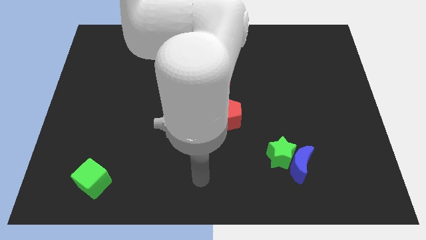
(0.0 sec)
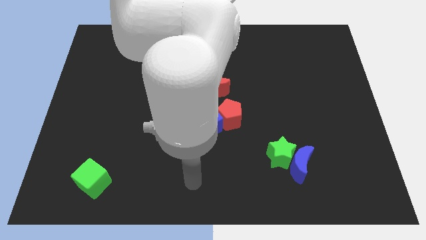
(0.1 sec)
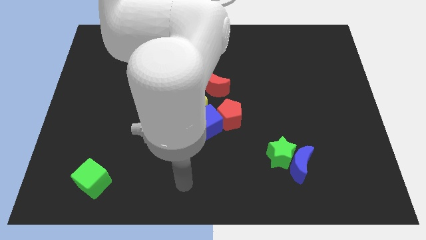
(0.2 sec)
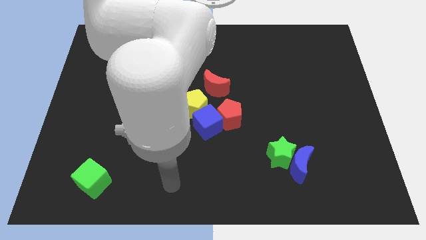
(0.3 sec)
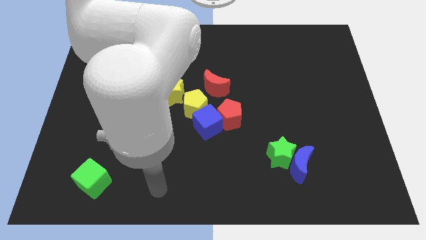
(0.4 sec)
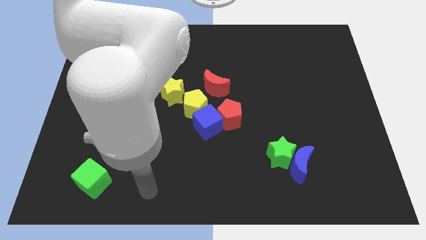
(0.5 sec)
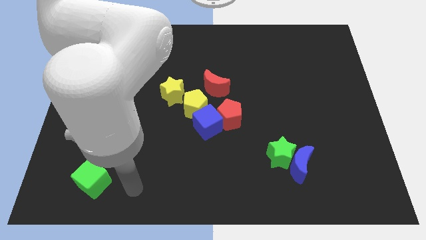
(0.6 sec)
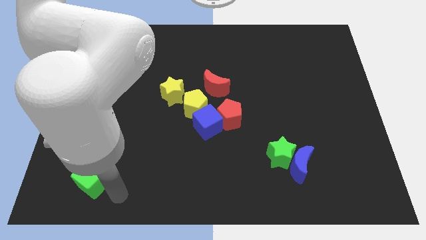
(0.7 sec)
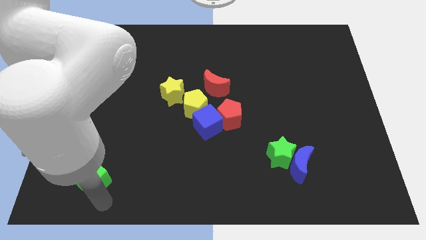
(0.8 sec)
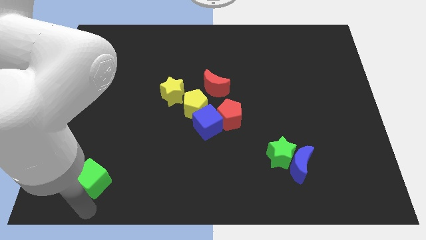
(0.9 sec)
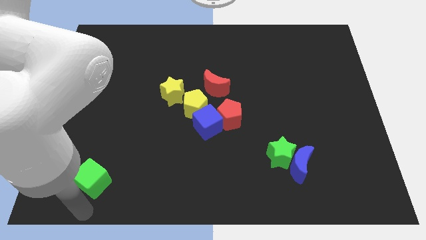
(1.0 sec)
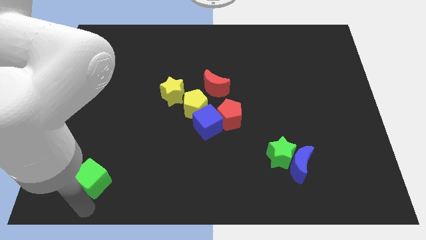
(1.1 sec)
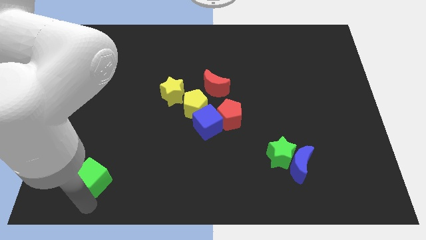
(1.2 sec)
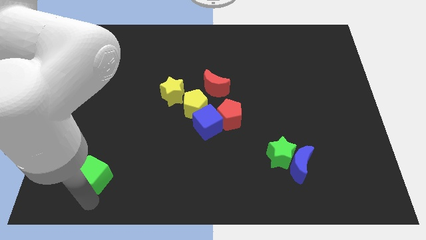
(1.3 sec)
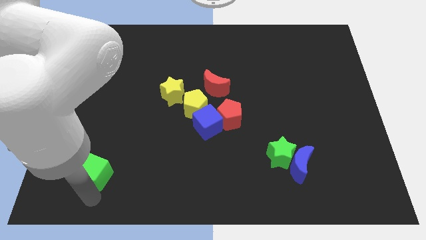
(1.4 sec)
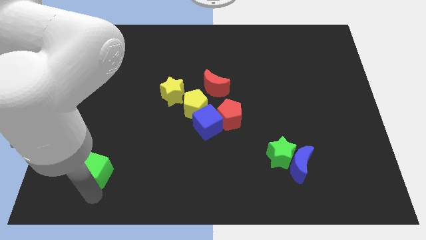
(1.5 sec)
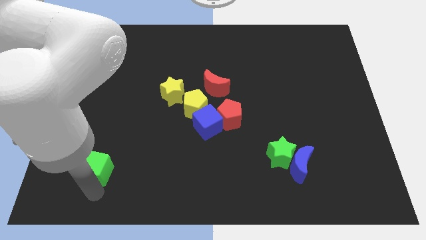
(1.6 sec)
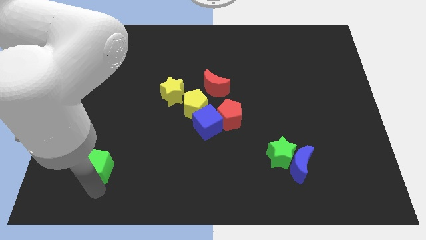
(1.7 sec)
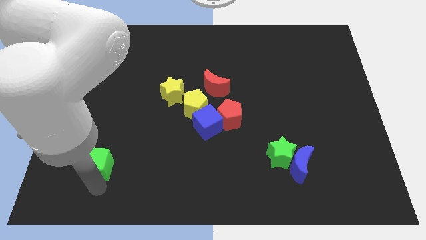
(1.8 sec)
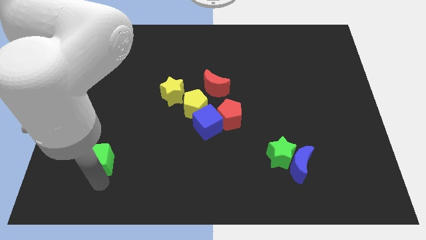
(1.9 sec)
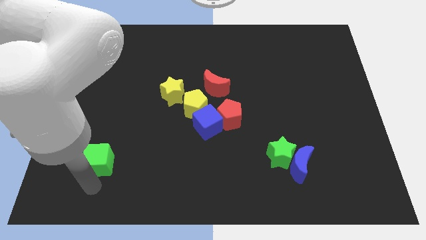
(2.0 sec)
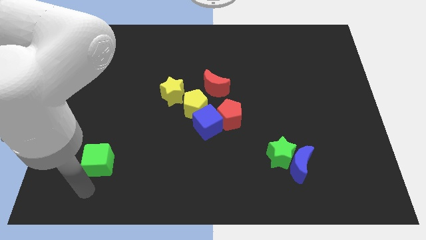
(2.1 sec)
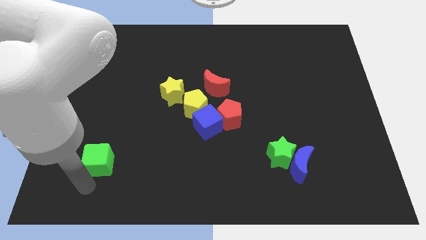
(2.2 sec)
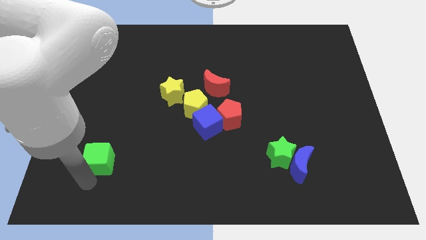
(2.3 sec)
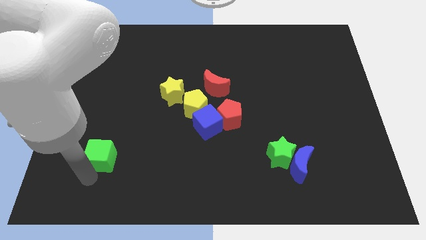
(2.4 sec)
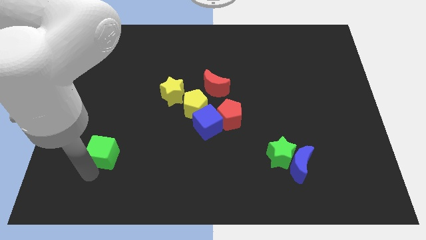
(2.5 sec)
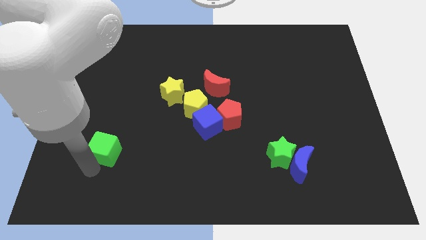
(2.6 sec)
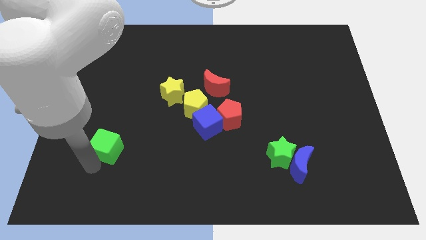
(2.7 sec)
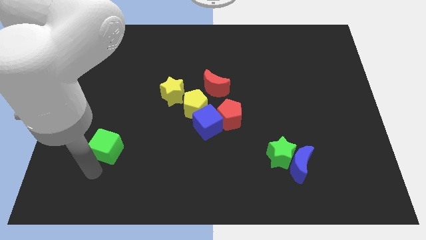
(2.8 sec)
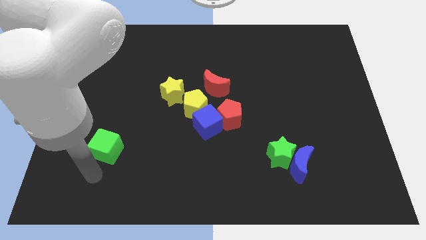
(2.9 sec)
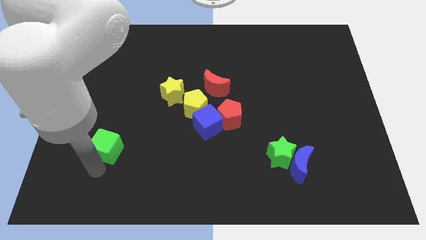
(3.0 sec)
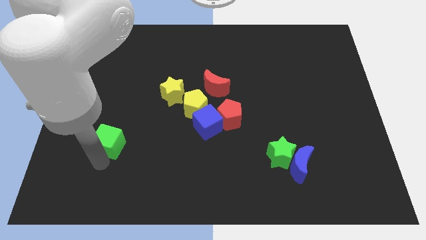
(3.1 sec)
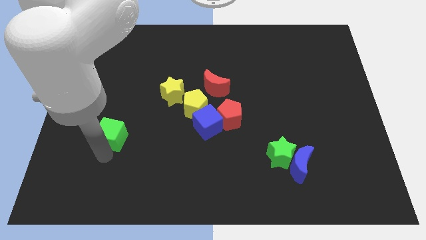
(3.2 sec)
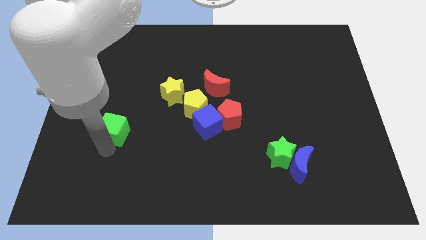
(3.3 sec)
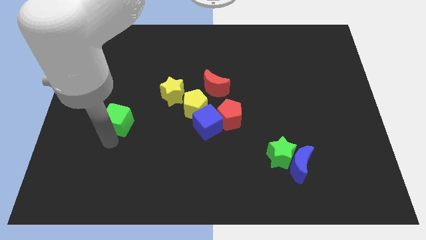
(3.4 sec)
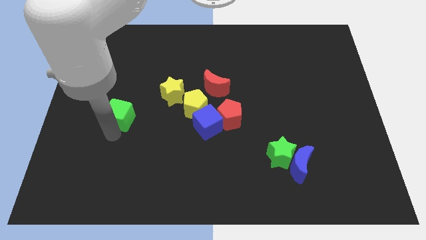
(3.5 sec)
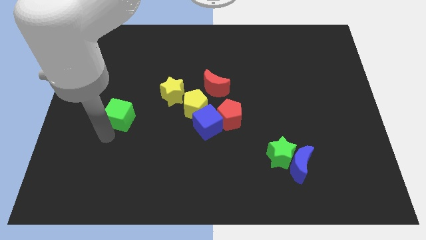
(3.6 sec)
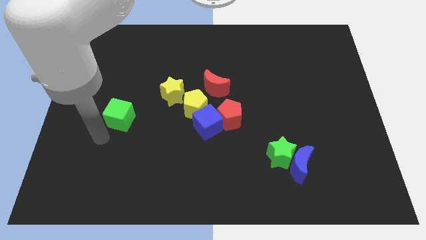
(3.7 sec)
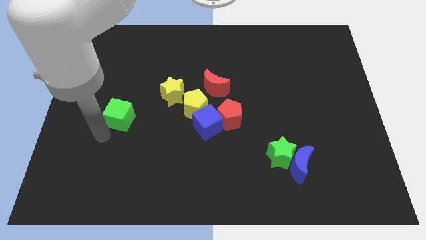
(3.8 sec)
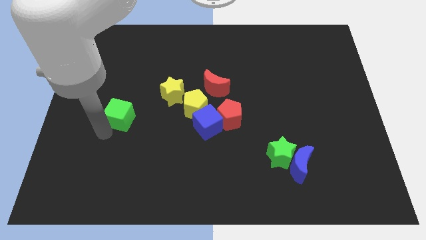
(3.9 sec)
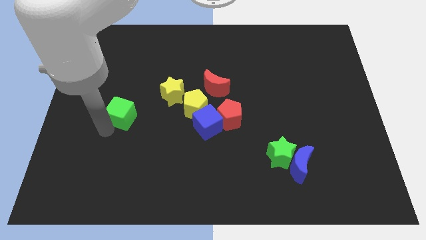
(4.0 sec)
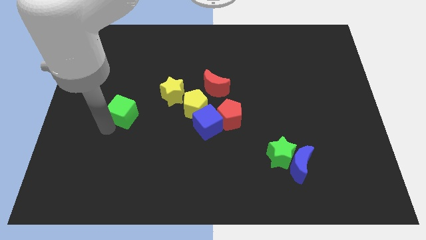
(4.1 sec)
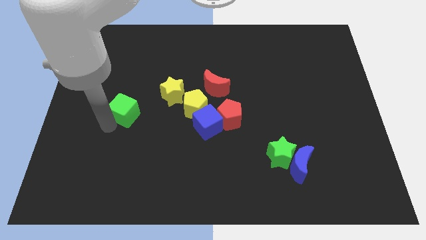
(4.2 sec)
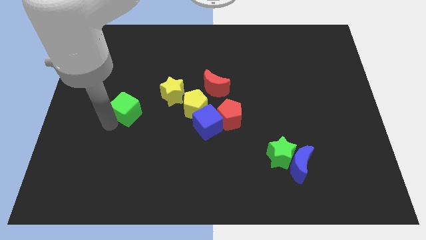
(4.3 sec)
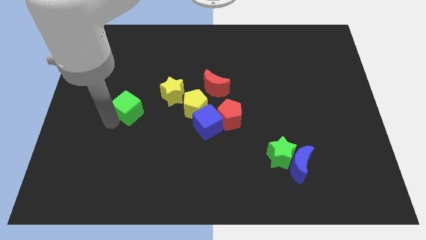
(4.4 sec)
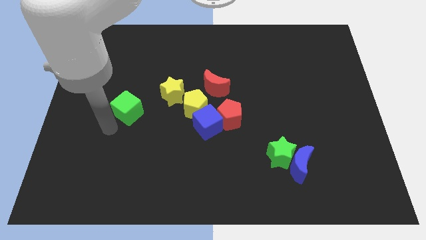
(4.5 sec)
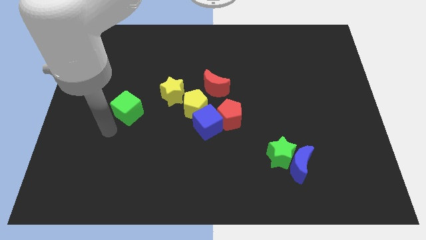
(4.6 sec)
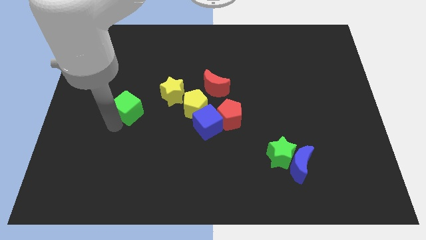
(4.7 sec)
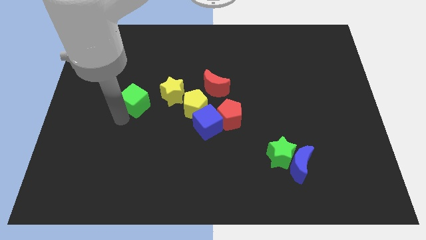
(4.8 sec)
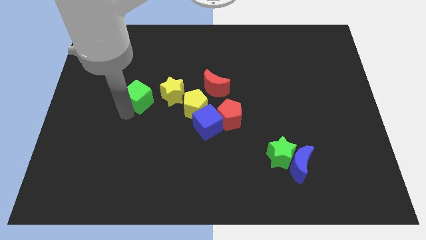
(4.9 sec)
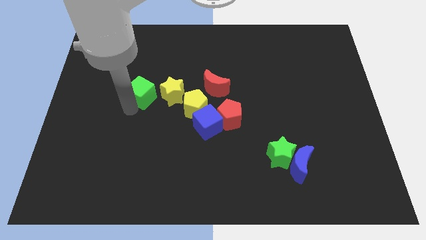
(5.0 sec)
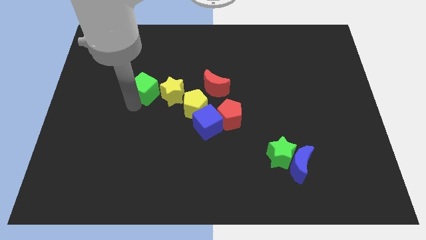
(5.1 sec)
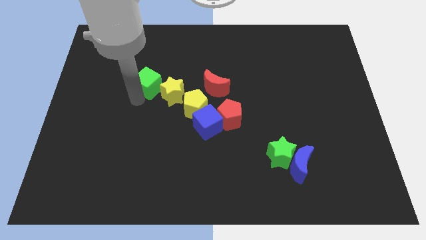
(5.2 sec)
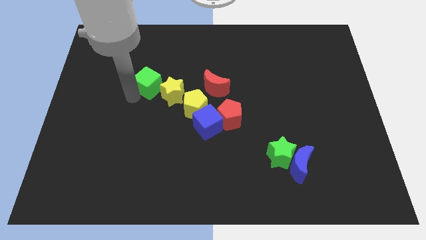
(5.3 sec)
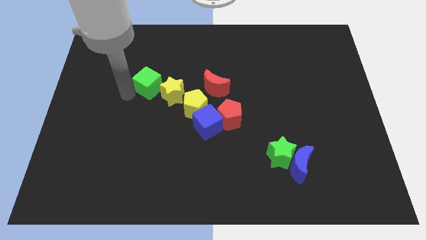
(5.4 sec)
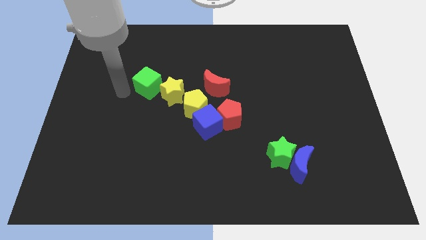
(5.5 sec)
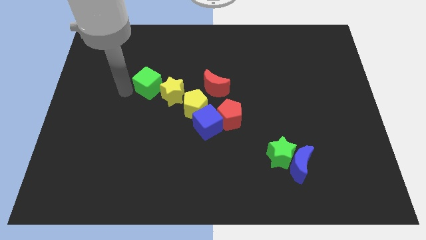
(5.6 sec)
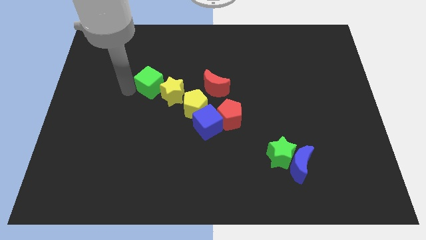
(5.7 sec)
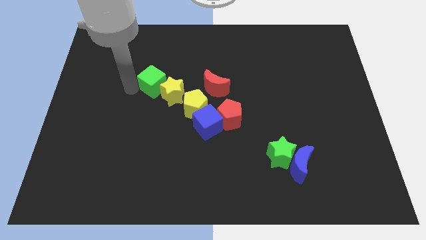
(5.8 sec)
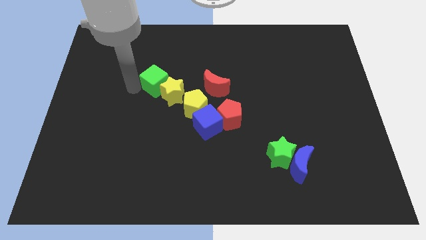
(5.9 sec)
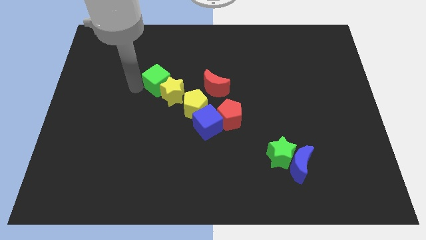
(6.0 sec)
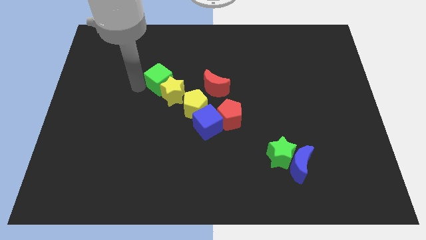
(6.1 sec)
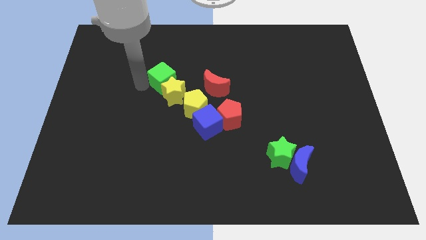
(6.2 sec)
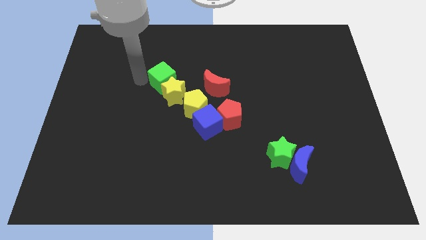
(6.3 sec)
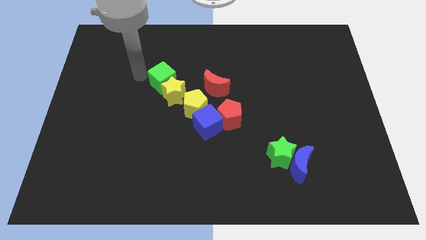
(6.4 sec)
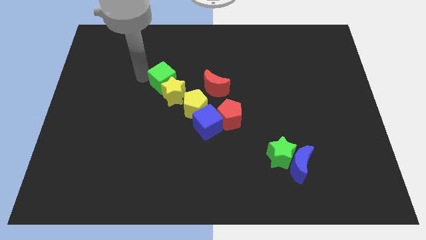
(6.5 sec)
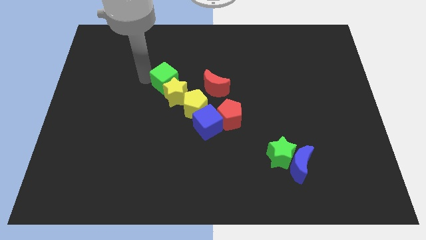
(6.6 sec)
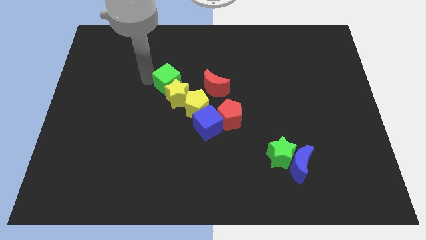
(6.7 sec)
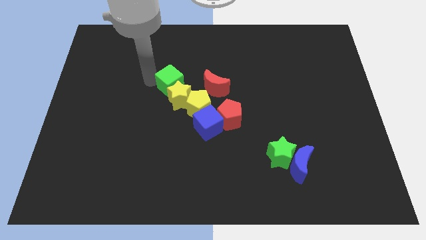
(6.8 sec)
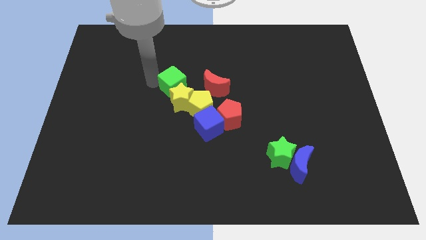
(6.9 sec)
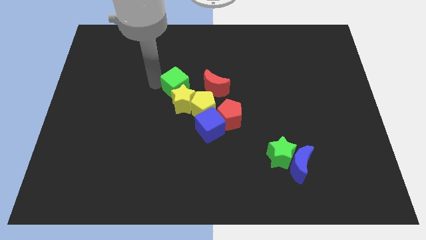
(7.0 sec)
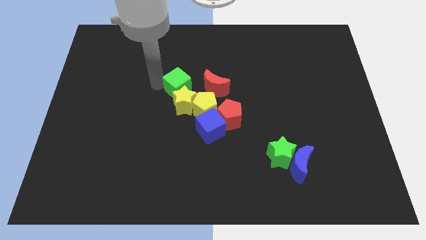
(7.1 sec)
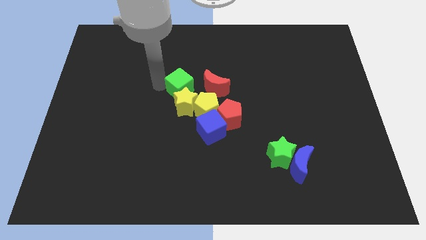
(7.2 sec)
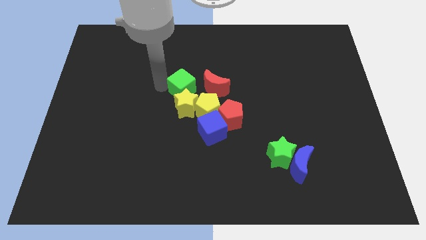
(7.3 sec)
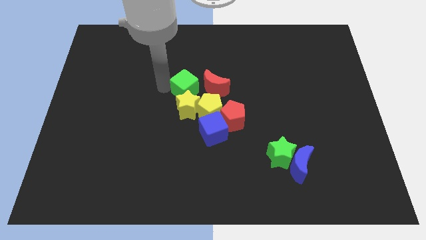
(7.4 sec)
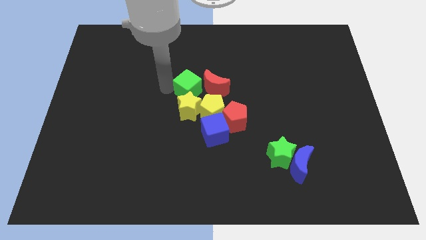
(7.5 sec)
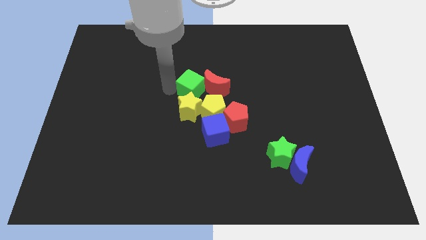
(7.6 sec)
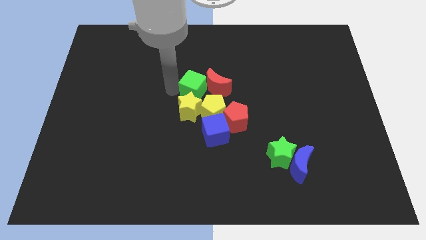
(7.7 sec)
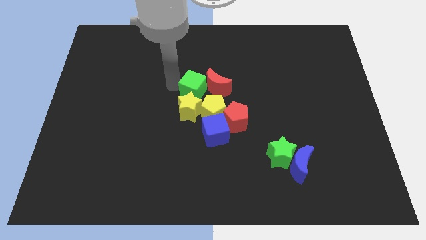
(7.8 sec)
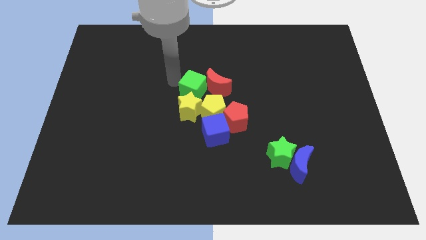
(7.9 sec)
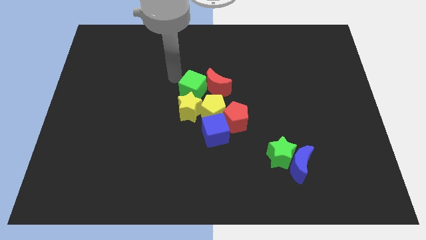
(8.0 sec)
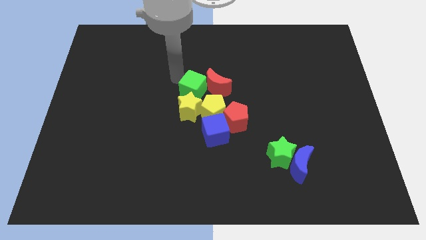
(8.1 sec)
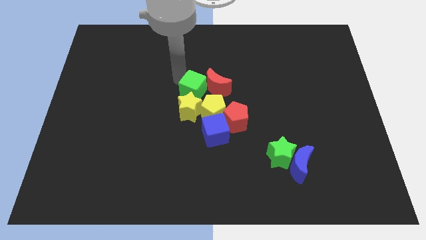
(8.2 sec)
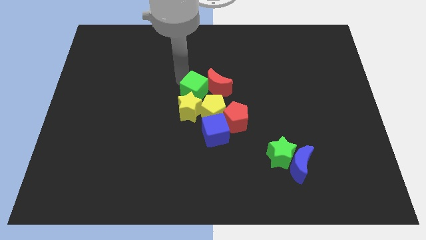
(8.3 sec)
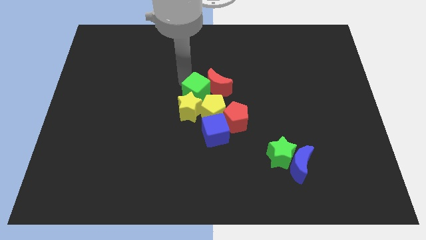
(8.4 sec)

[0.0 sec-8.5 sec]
push the green cube to the top left of the red pentagon
